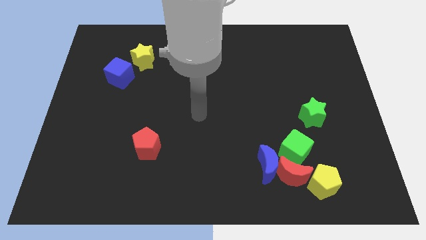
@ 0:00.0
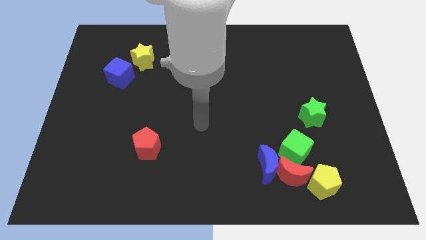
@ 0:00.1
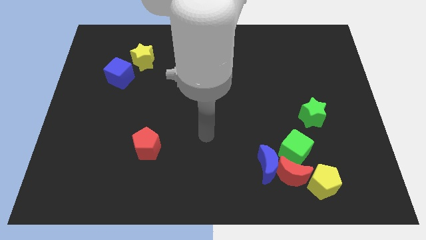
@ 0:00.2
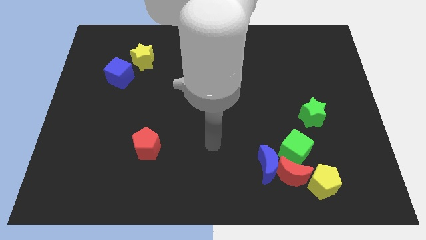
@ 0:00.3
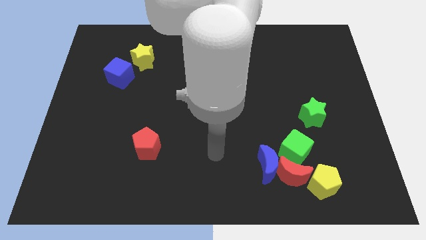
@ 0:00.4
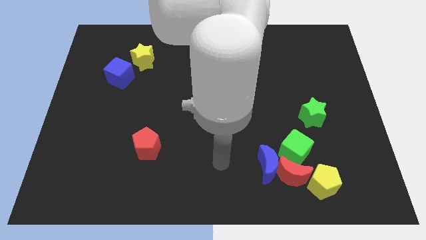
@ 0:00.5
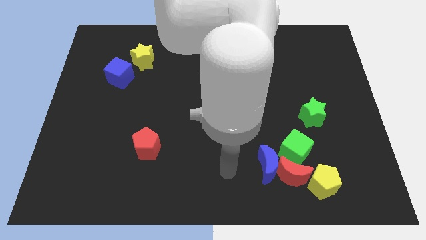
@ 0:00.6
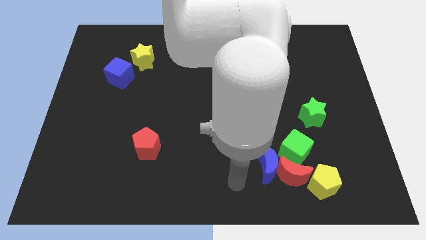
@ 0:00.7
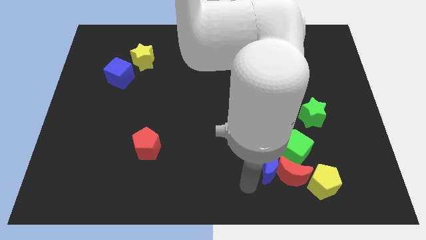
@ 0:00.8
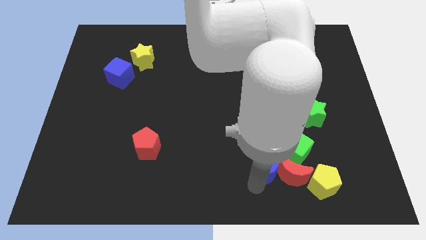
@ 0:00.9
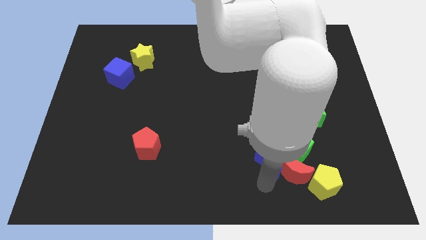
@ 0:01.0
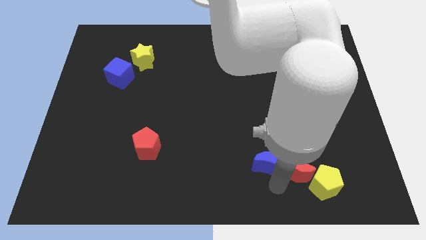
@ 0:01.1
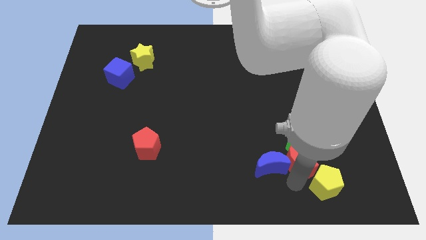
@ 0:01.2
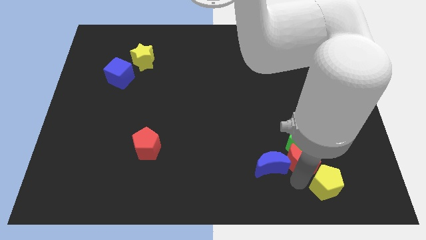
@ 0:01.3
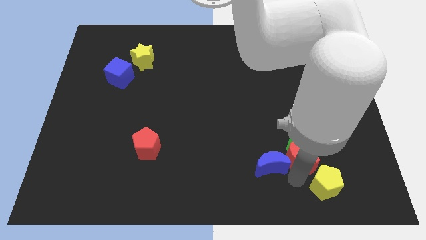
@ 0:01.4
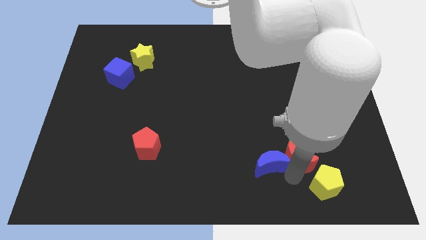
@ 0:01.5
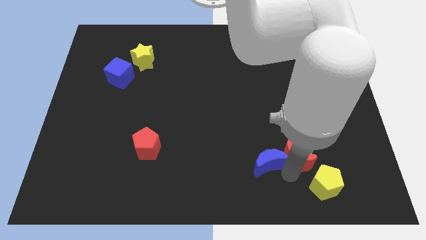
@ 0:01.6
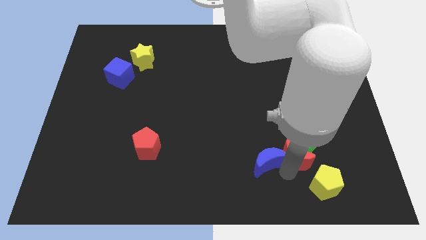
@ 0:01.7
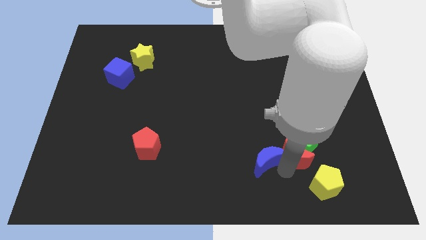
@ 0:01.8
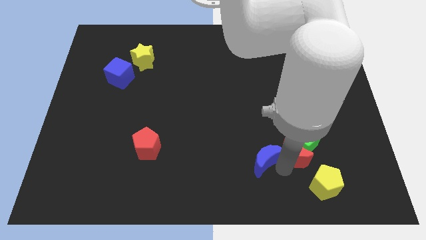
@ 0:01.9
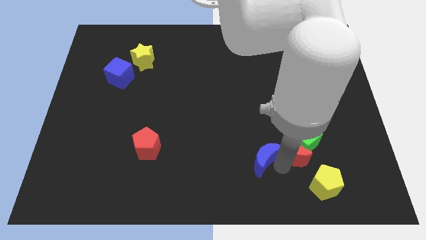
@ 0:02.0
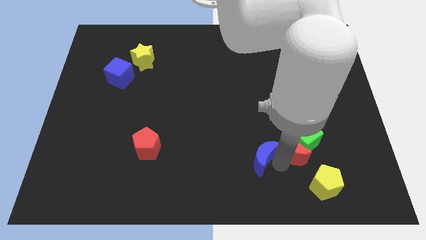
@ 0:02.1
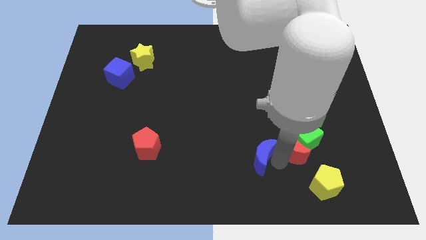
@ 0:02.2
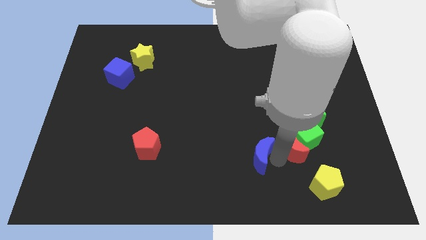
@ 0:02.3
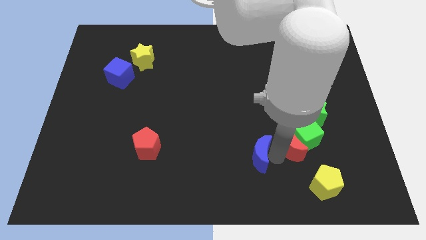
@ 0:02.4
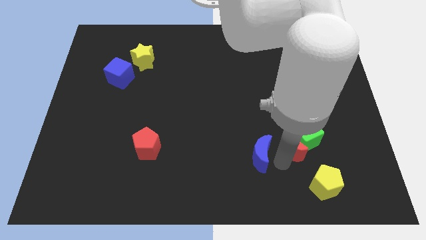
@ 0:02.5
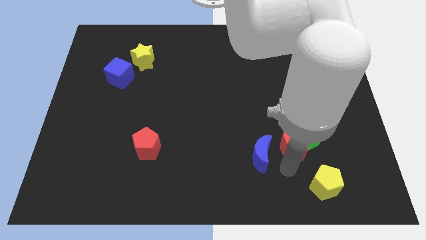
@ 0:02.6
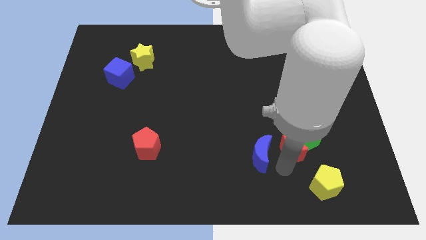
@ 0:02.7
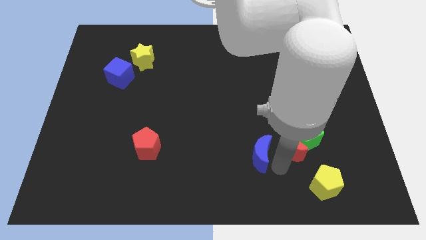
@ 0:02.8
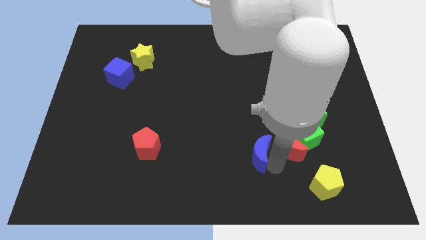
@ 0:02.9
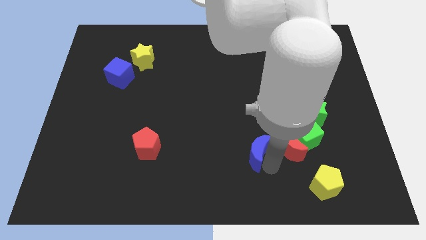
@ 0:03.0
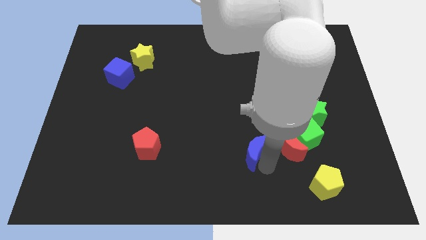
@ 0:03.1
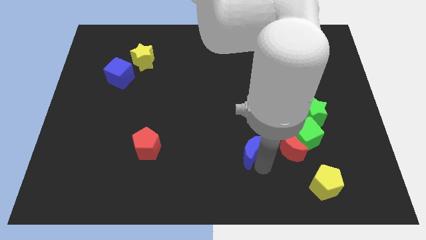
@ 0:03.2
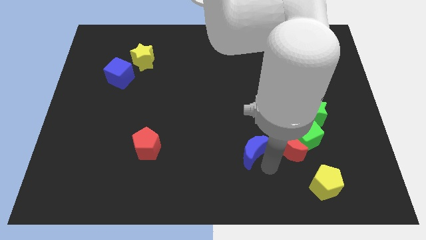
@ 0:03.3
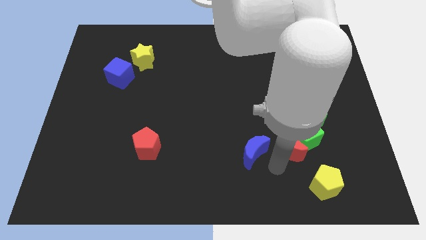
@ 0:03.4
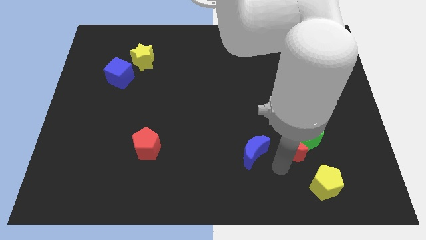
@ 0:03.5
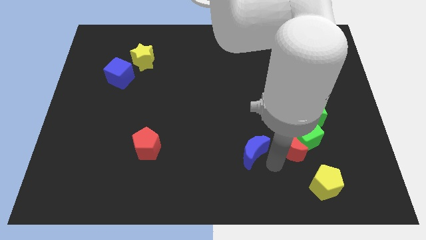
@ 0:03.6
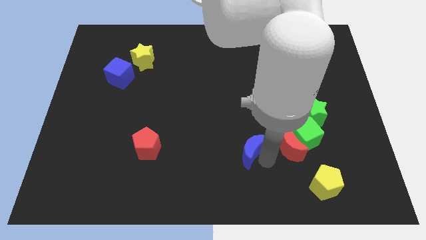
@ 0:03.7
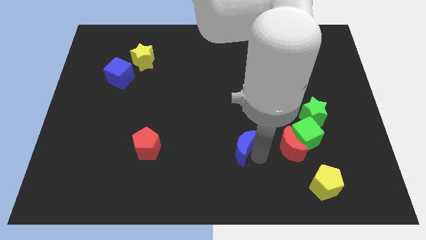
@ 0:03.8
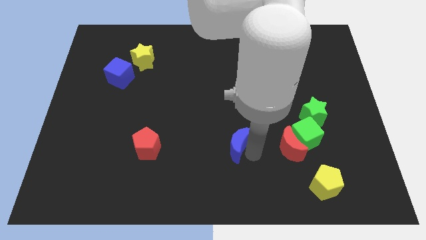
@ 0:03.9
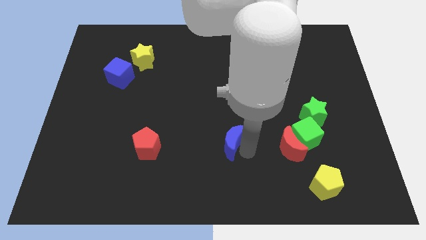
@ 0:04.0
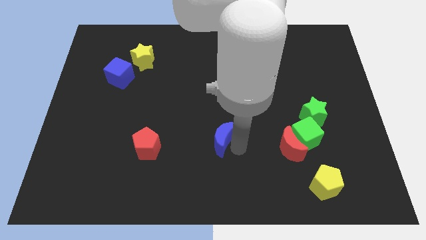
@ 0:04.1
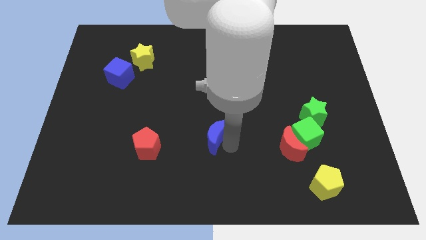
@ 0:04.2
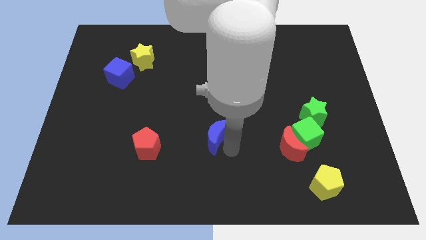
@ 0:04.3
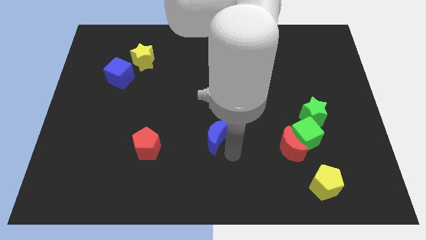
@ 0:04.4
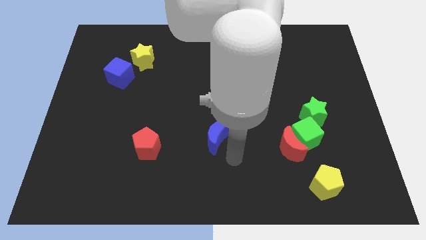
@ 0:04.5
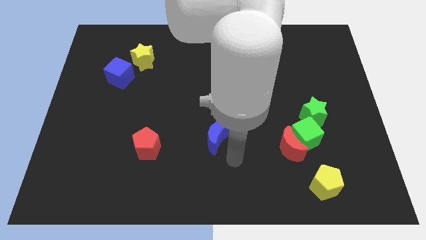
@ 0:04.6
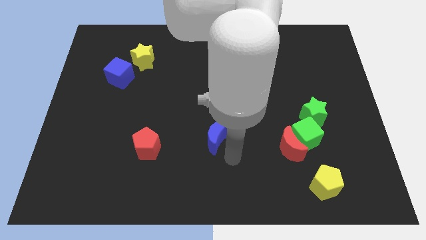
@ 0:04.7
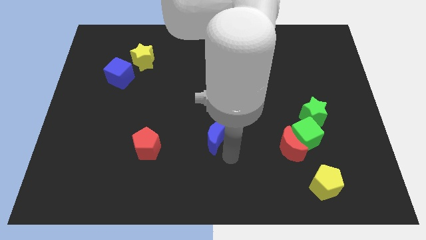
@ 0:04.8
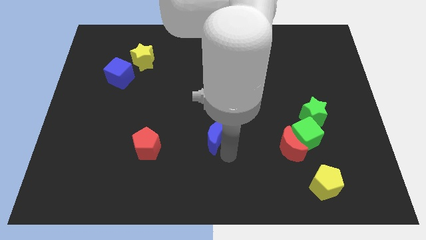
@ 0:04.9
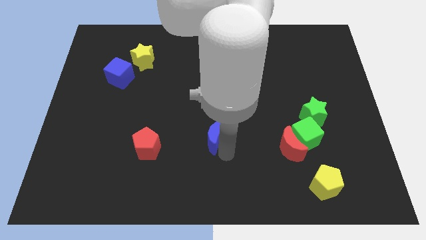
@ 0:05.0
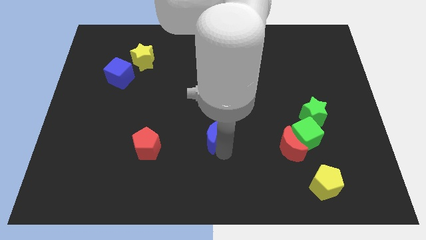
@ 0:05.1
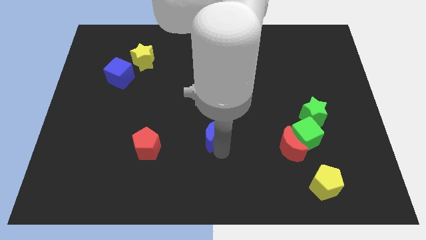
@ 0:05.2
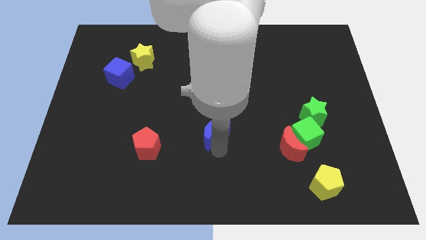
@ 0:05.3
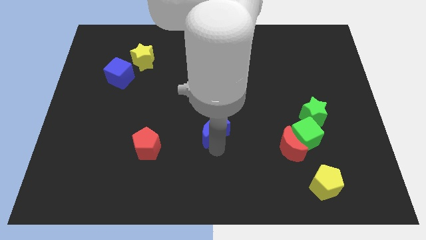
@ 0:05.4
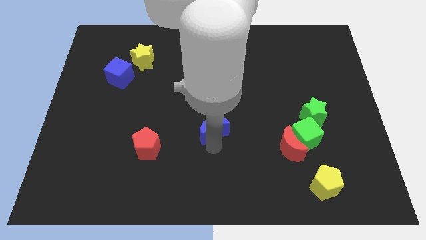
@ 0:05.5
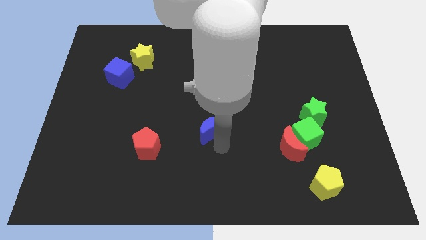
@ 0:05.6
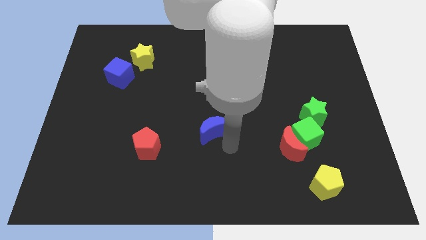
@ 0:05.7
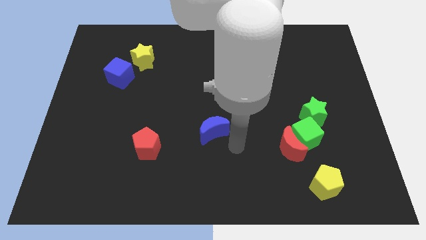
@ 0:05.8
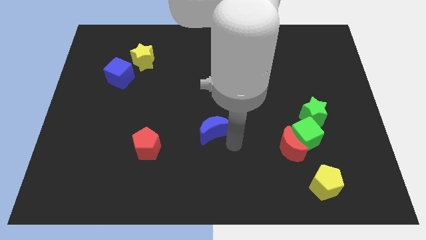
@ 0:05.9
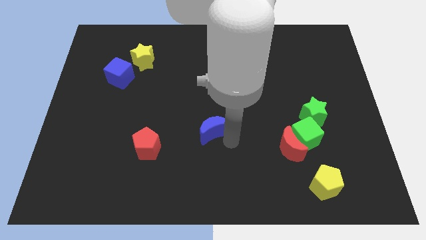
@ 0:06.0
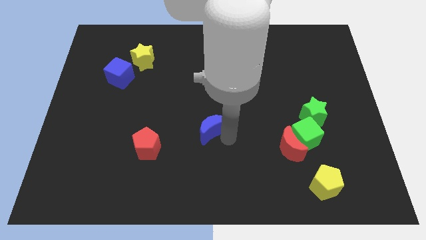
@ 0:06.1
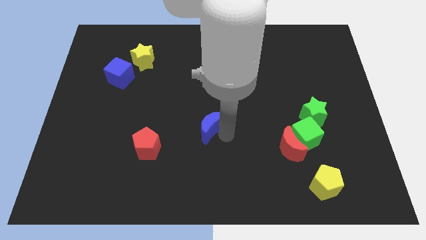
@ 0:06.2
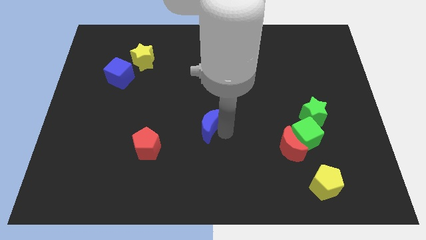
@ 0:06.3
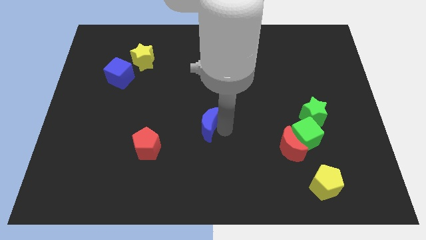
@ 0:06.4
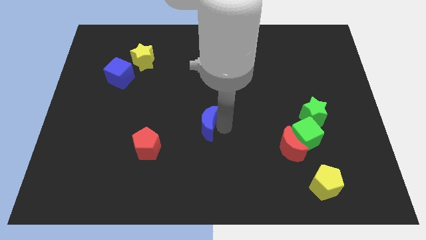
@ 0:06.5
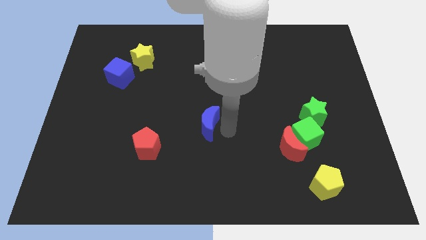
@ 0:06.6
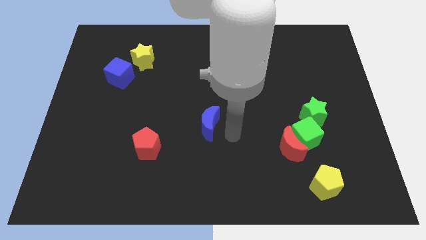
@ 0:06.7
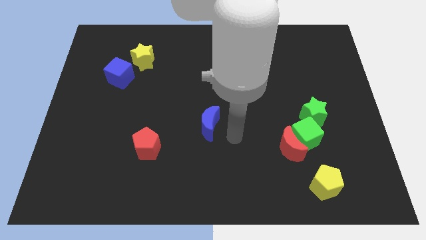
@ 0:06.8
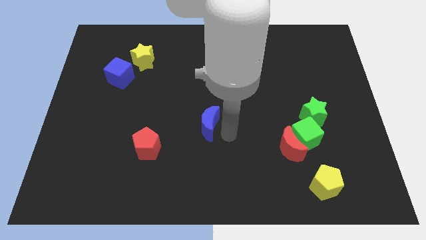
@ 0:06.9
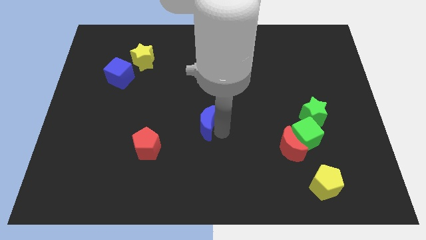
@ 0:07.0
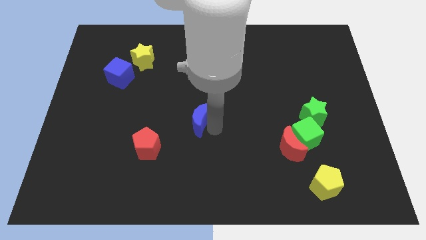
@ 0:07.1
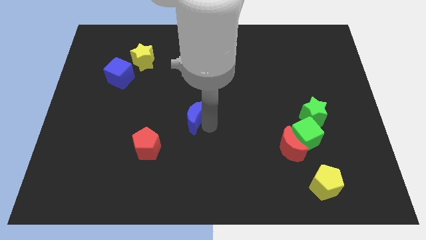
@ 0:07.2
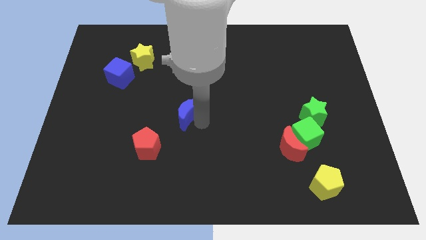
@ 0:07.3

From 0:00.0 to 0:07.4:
move the blue moon upwards and to the left
